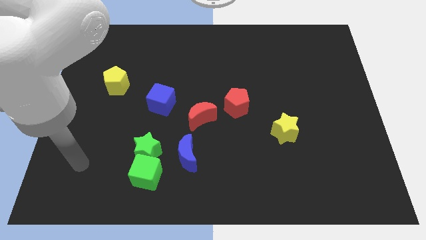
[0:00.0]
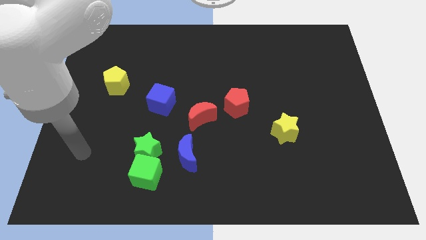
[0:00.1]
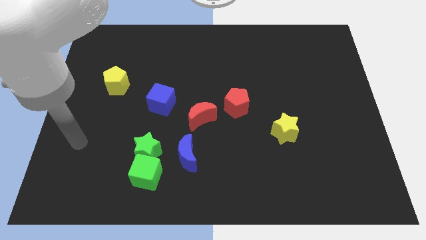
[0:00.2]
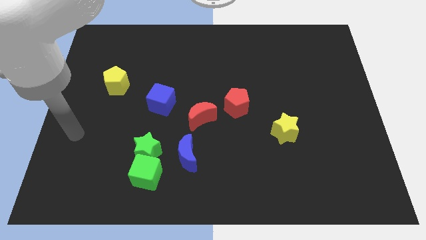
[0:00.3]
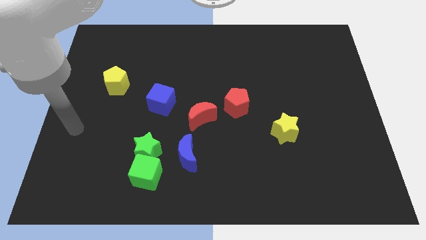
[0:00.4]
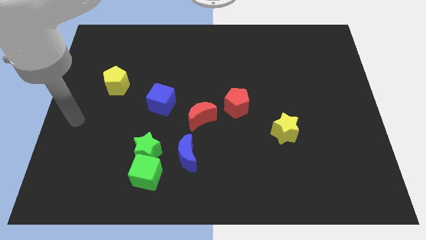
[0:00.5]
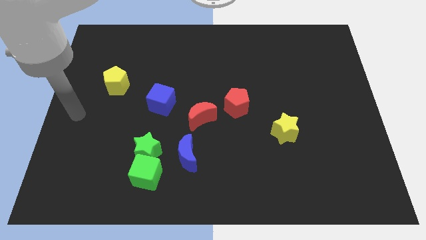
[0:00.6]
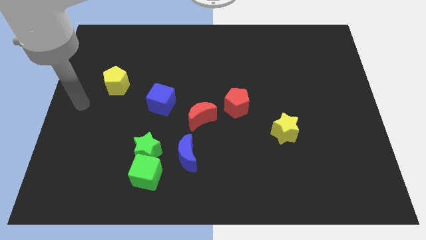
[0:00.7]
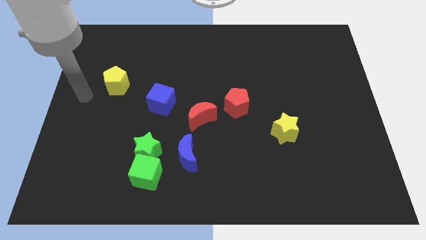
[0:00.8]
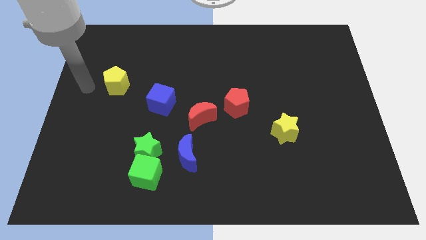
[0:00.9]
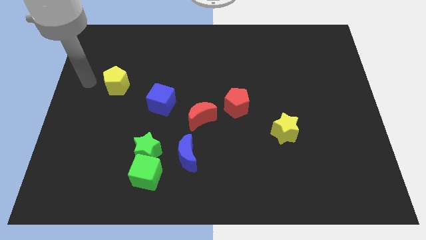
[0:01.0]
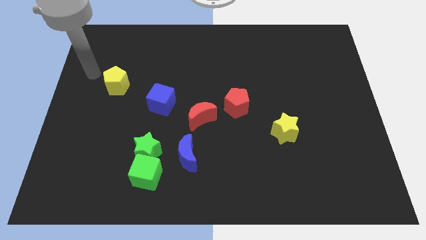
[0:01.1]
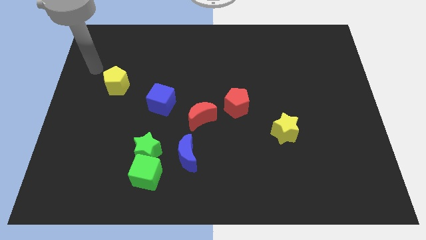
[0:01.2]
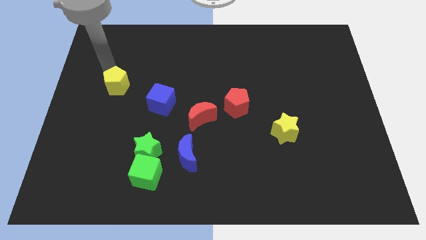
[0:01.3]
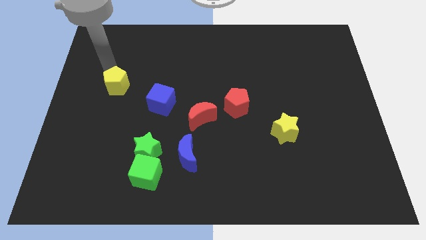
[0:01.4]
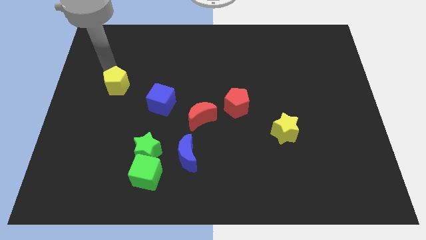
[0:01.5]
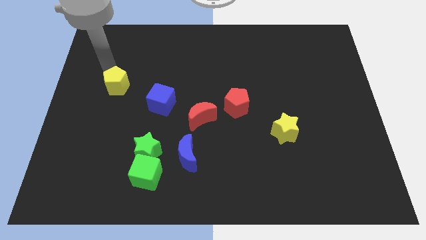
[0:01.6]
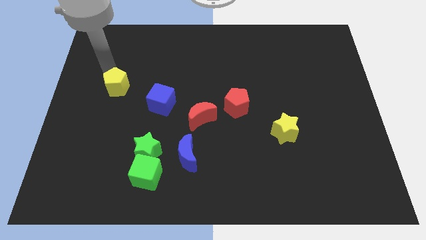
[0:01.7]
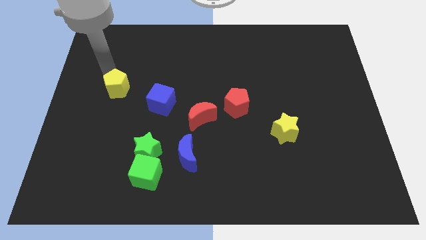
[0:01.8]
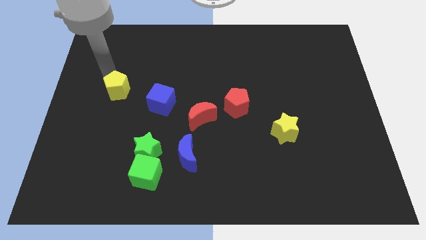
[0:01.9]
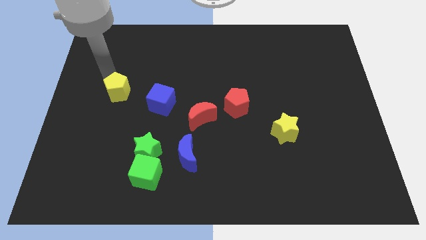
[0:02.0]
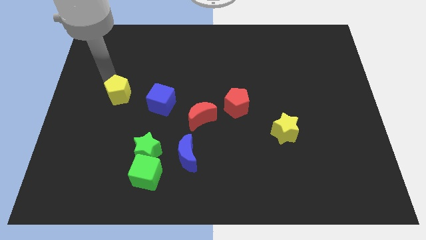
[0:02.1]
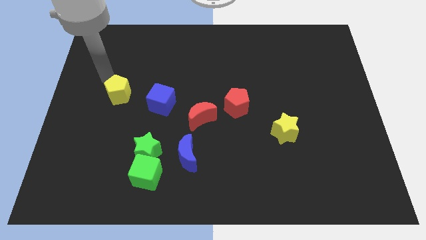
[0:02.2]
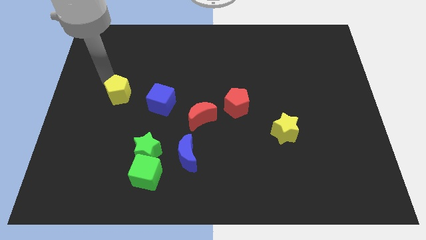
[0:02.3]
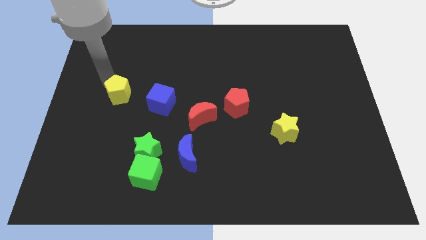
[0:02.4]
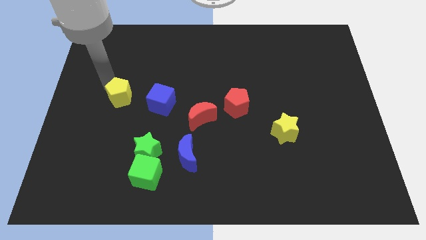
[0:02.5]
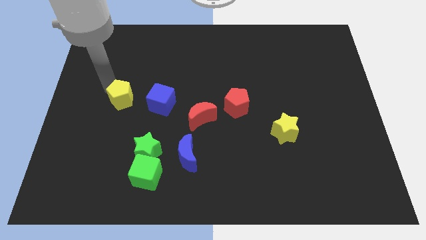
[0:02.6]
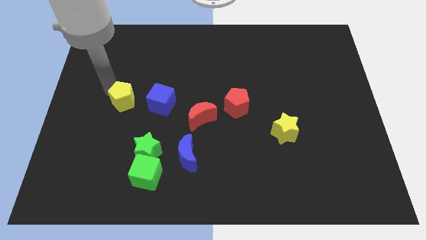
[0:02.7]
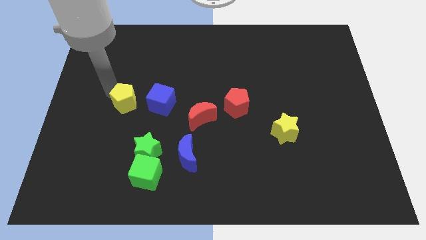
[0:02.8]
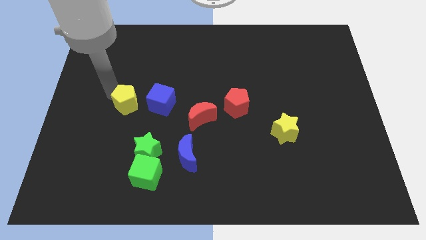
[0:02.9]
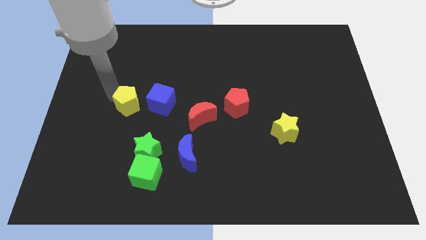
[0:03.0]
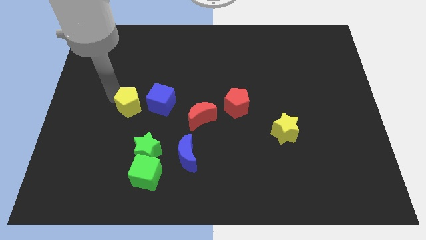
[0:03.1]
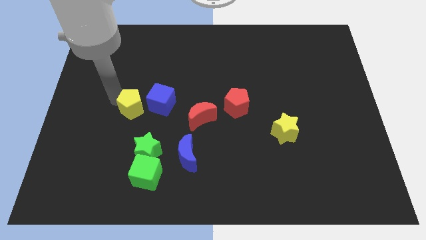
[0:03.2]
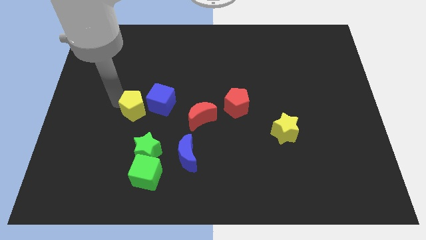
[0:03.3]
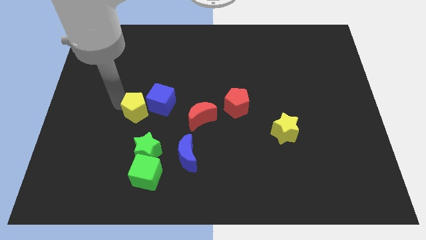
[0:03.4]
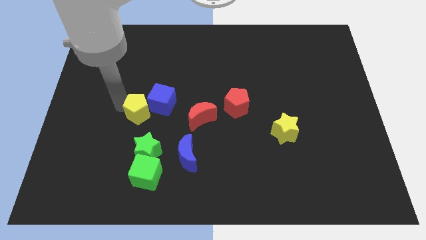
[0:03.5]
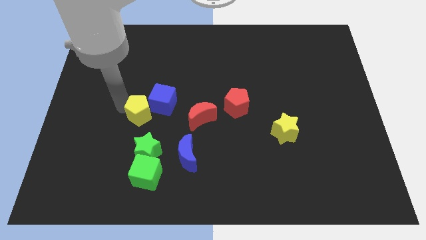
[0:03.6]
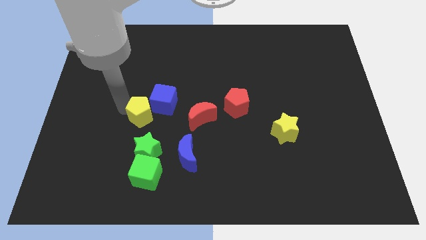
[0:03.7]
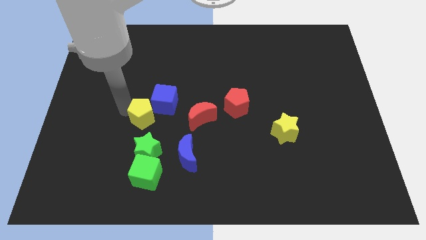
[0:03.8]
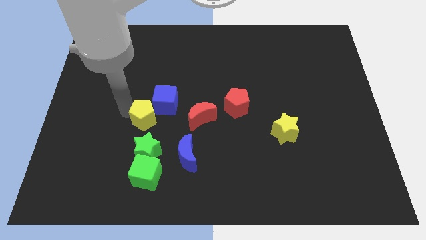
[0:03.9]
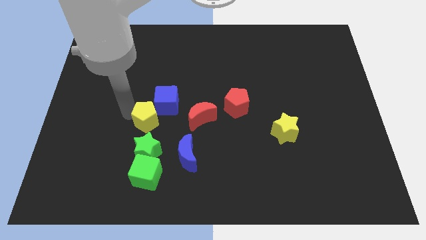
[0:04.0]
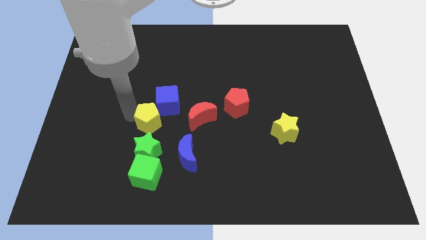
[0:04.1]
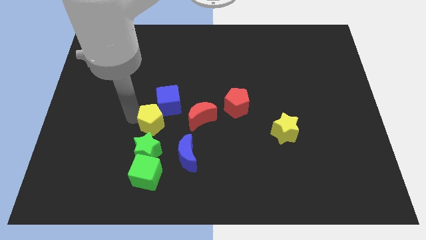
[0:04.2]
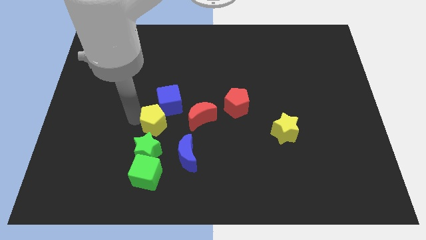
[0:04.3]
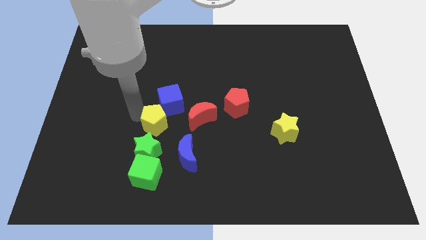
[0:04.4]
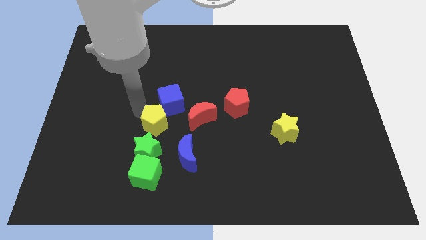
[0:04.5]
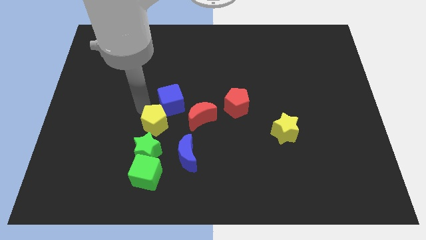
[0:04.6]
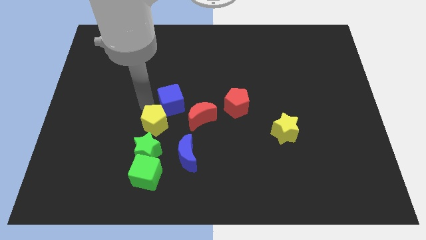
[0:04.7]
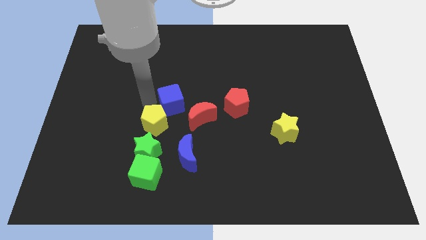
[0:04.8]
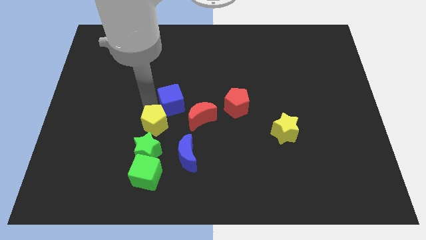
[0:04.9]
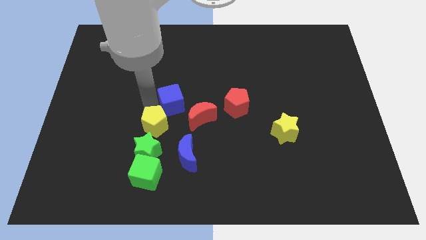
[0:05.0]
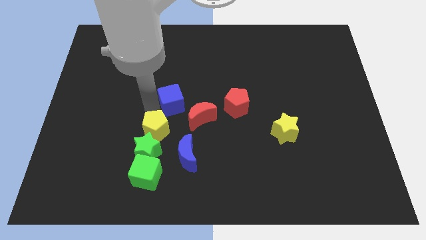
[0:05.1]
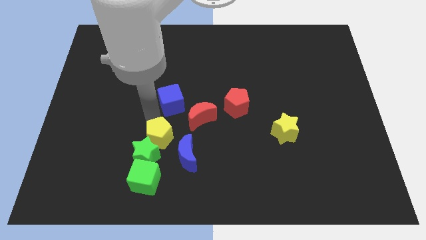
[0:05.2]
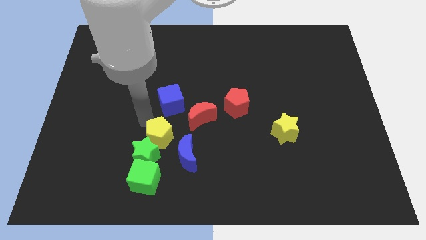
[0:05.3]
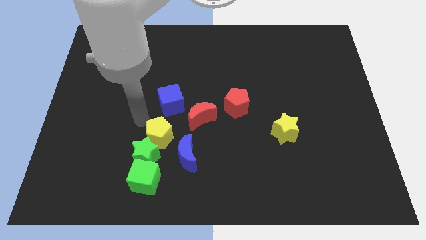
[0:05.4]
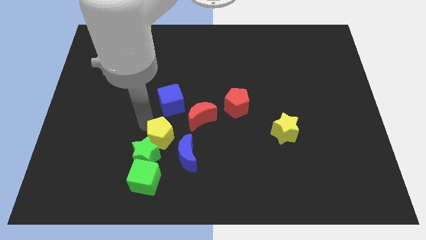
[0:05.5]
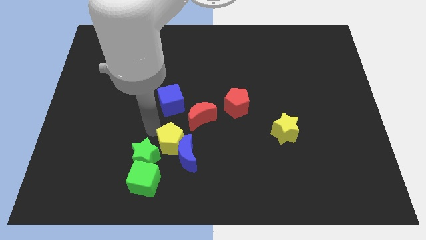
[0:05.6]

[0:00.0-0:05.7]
put the yellow pentagon to the blue moon

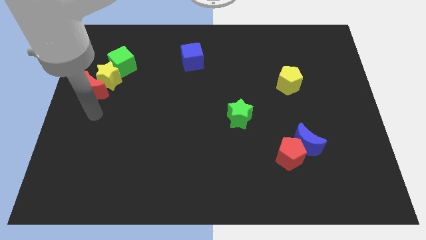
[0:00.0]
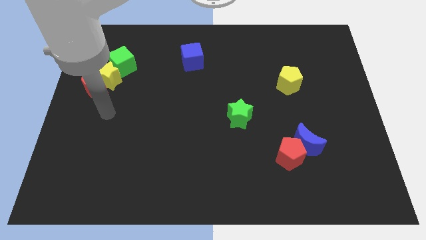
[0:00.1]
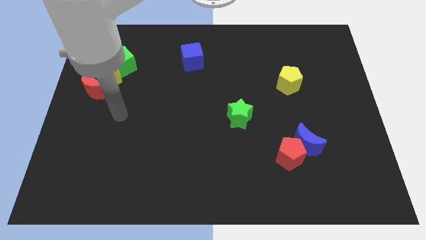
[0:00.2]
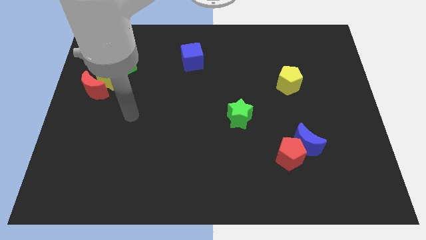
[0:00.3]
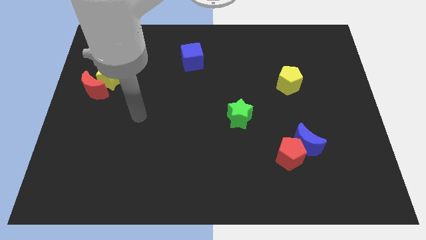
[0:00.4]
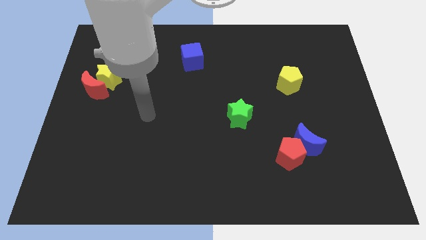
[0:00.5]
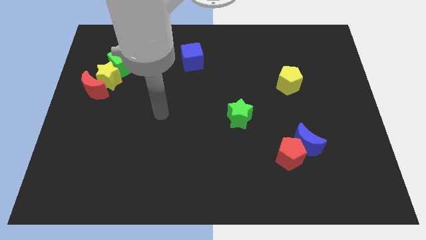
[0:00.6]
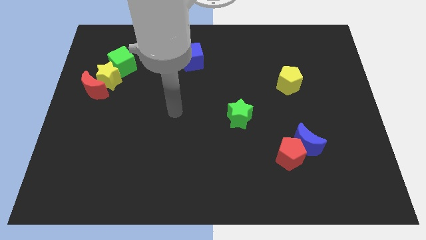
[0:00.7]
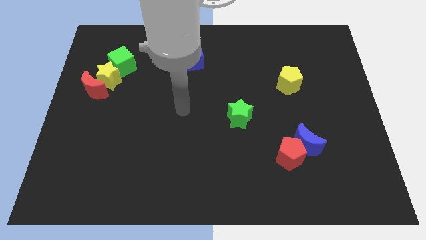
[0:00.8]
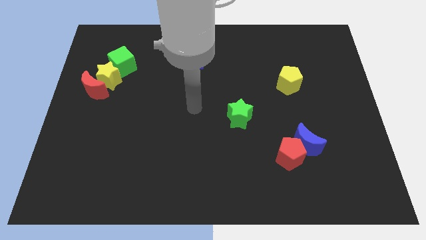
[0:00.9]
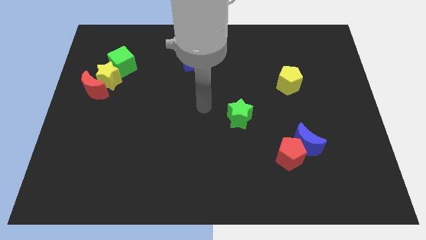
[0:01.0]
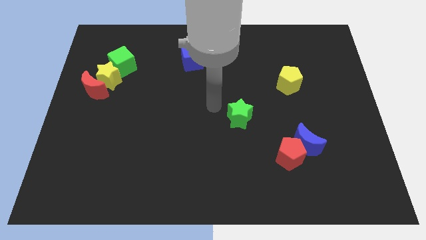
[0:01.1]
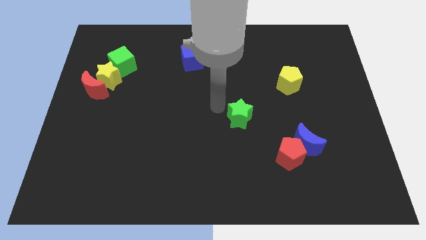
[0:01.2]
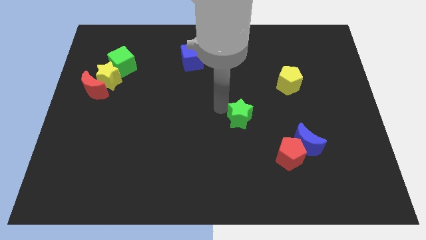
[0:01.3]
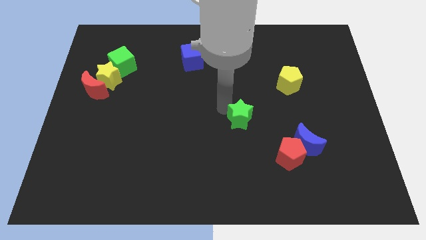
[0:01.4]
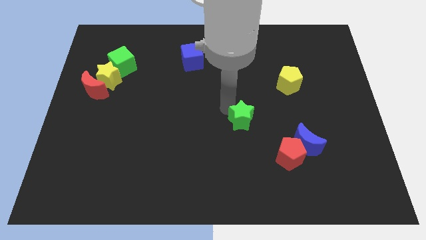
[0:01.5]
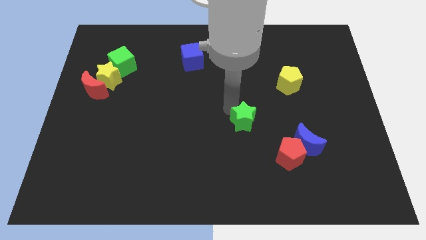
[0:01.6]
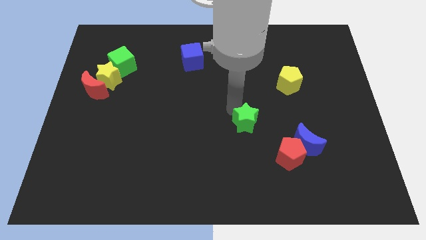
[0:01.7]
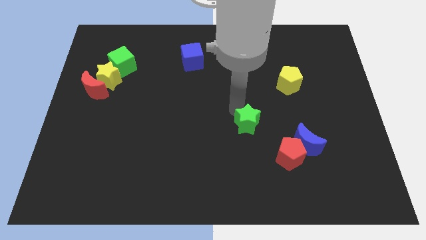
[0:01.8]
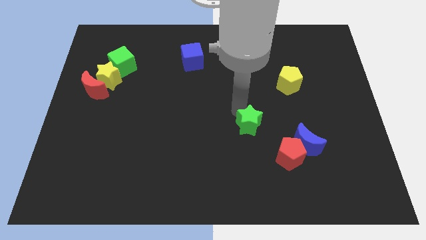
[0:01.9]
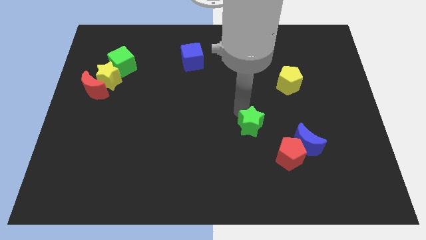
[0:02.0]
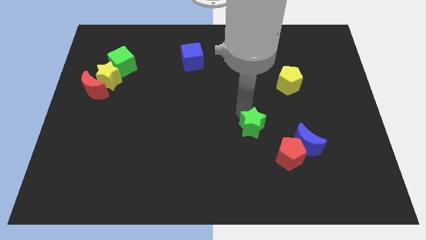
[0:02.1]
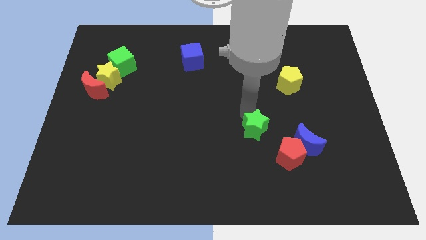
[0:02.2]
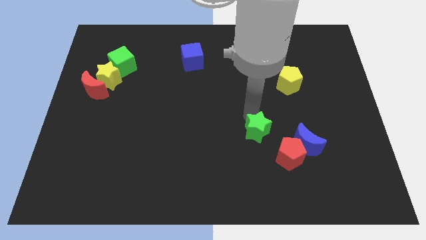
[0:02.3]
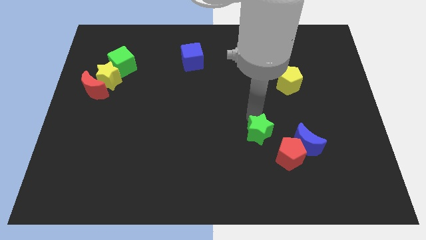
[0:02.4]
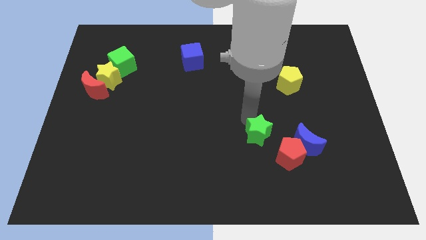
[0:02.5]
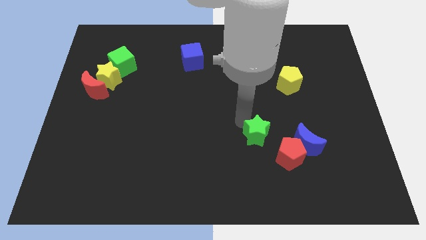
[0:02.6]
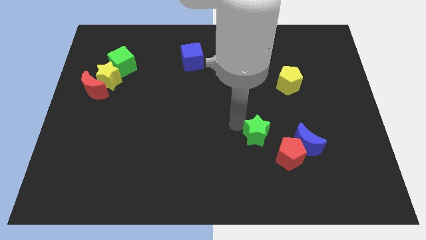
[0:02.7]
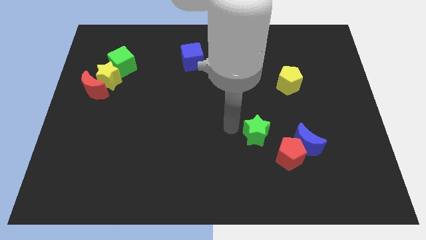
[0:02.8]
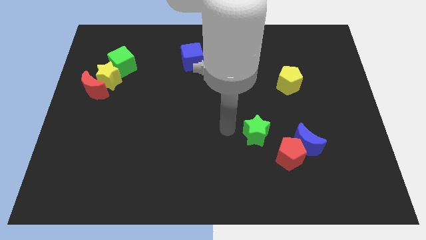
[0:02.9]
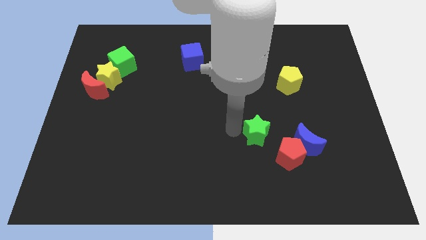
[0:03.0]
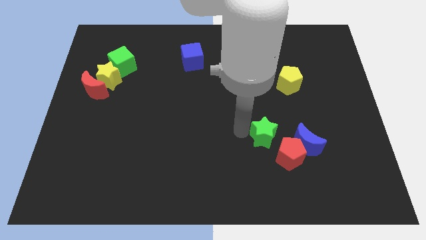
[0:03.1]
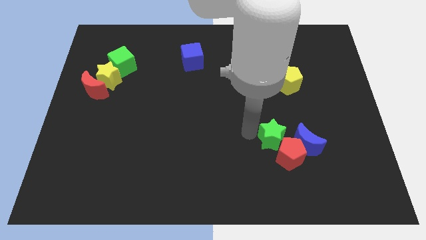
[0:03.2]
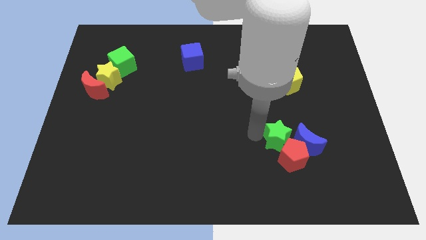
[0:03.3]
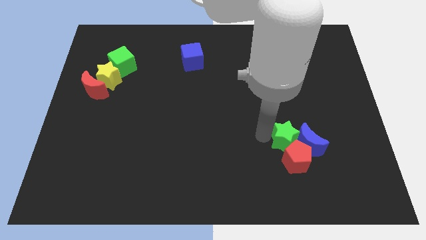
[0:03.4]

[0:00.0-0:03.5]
slide the green star close to the blue moon
